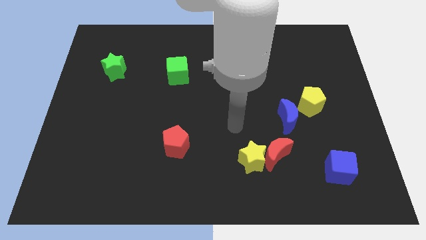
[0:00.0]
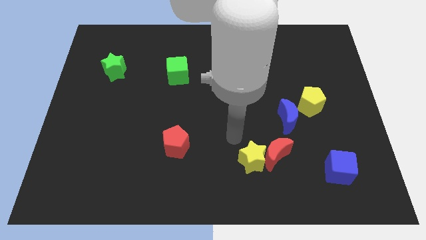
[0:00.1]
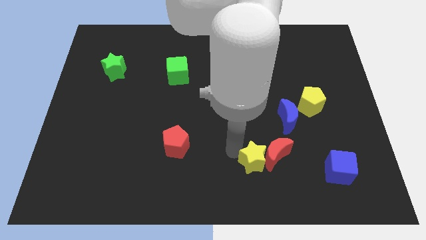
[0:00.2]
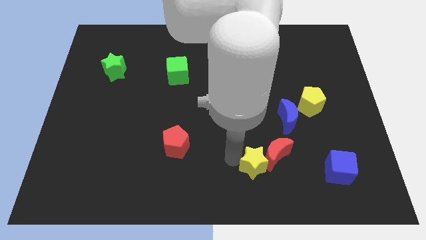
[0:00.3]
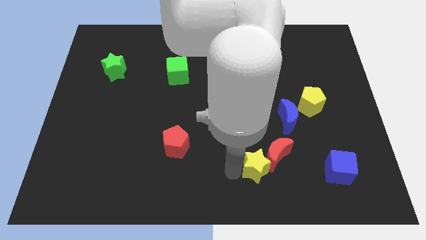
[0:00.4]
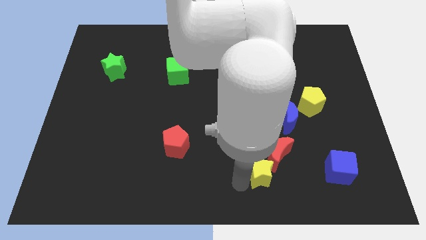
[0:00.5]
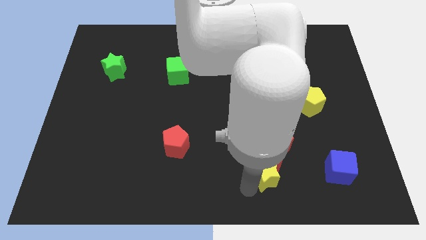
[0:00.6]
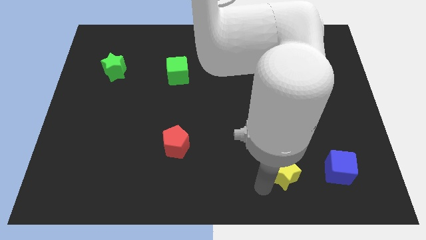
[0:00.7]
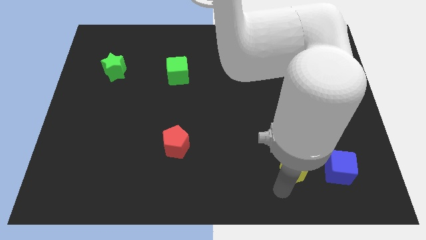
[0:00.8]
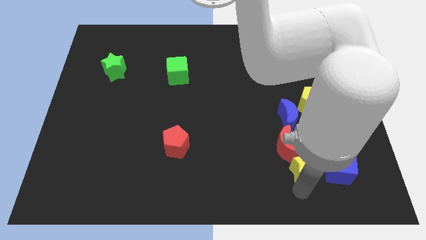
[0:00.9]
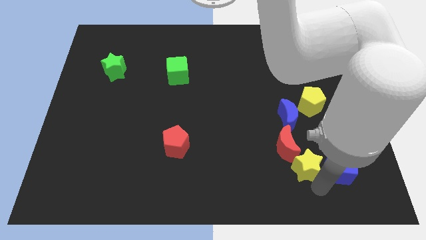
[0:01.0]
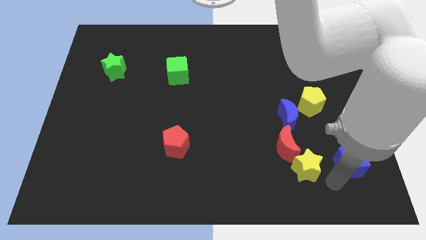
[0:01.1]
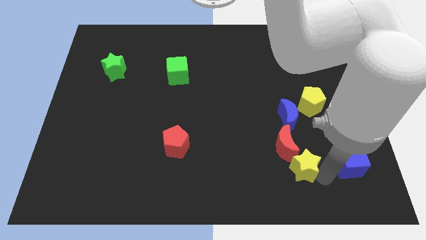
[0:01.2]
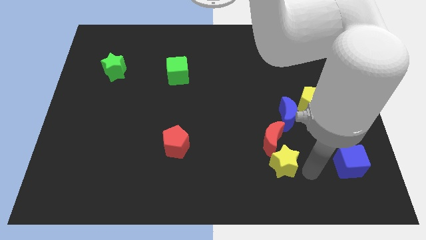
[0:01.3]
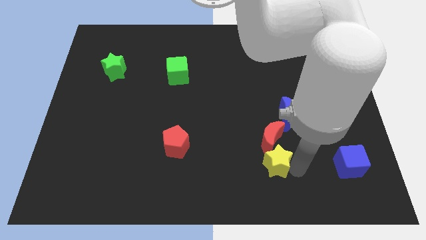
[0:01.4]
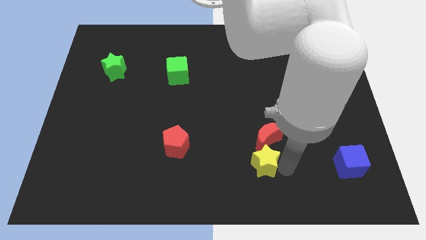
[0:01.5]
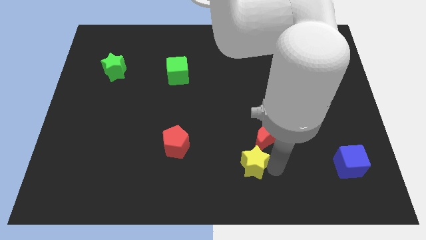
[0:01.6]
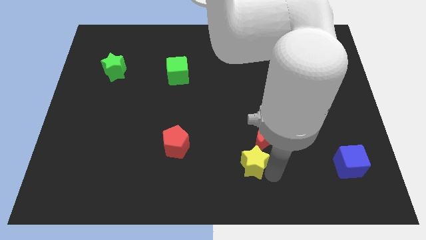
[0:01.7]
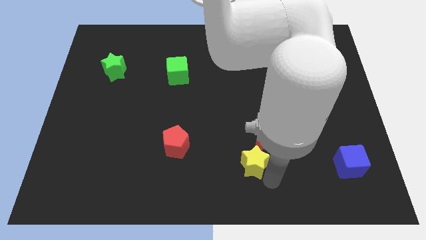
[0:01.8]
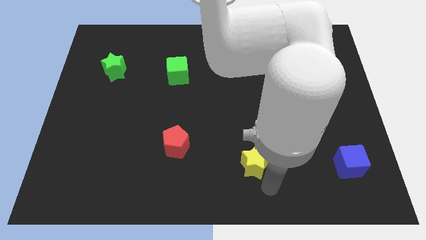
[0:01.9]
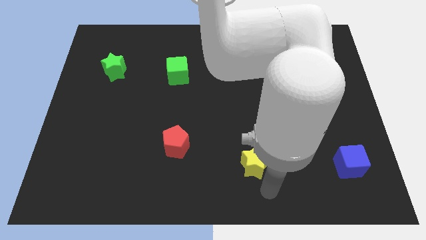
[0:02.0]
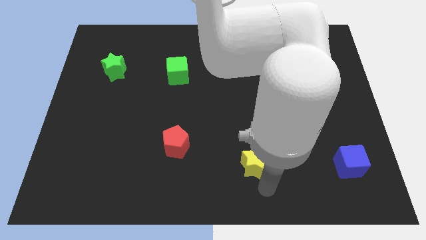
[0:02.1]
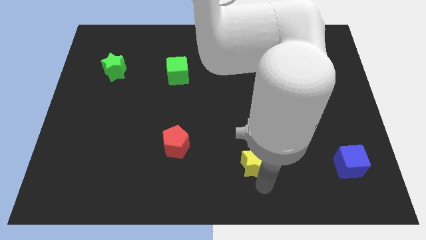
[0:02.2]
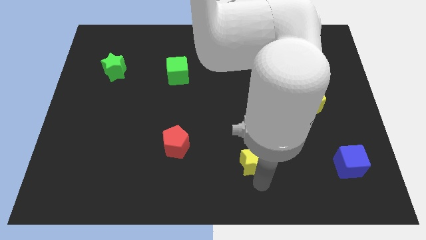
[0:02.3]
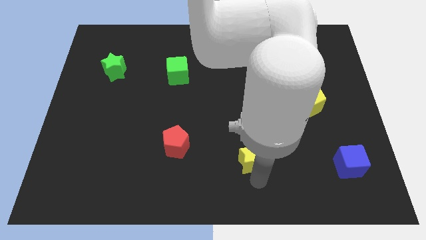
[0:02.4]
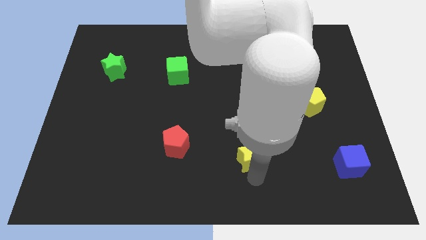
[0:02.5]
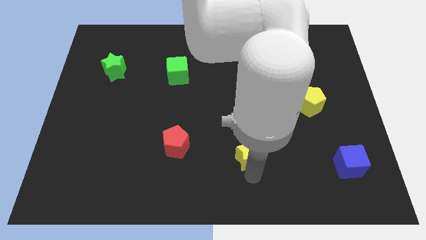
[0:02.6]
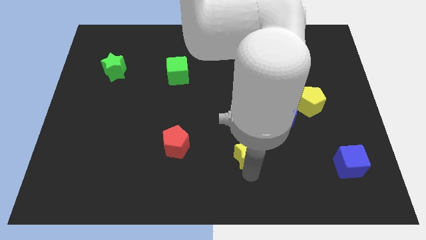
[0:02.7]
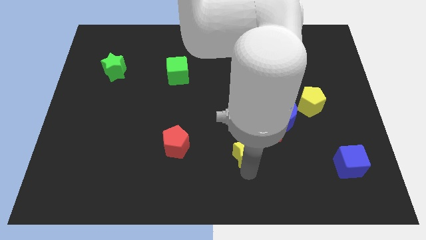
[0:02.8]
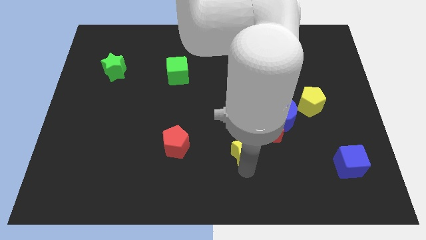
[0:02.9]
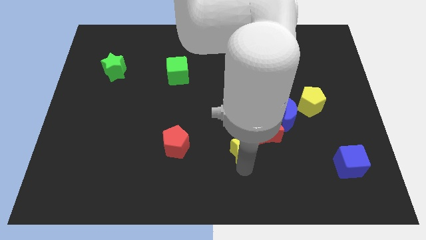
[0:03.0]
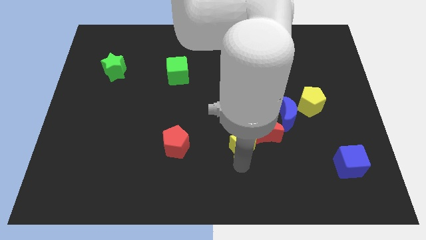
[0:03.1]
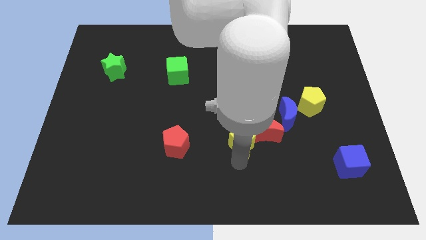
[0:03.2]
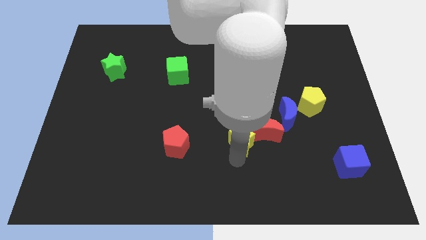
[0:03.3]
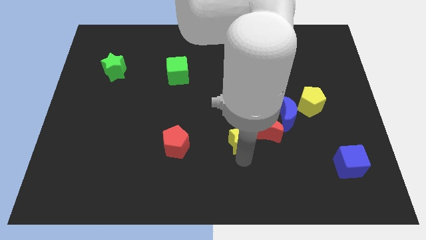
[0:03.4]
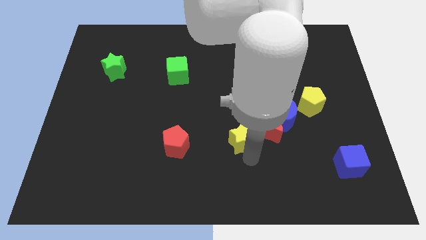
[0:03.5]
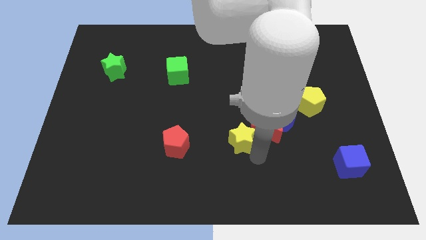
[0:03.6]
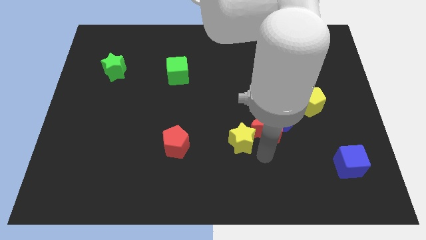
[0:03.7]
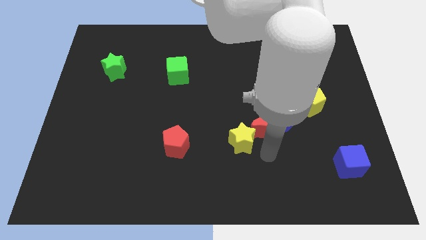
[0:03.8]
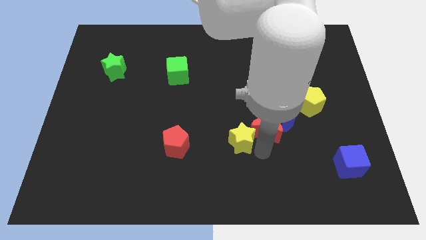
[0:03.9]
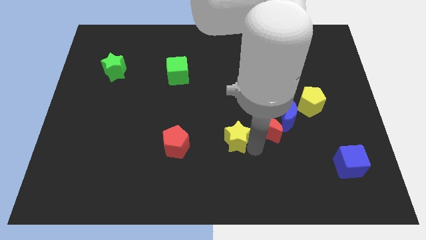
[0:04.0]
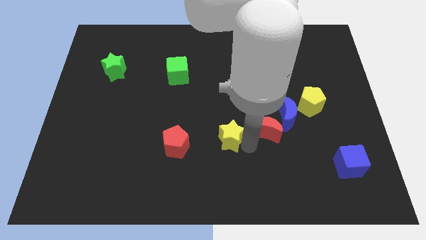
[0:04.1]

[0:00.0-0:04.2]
move the yellow star slightly up and then to the left

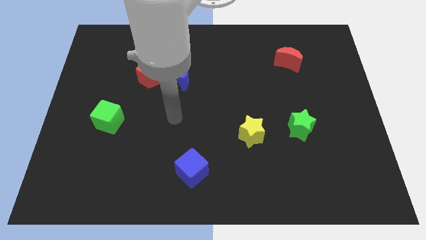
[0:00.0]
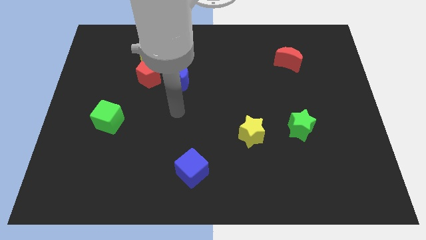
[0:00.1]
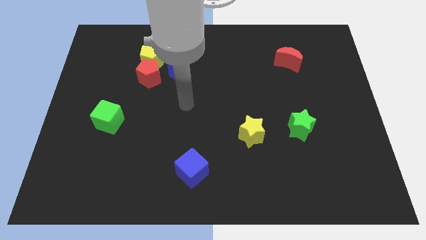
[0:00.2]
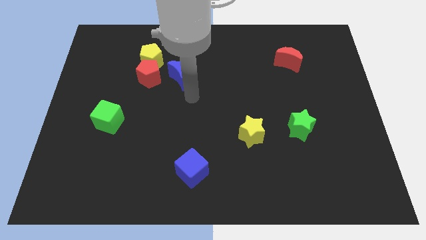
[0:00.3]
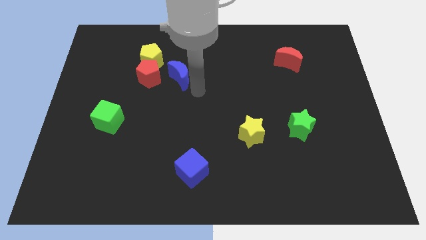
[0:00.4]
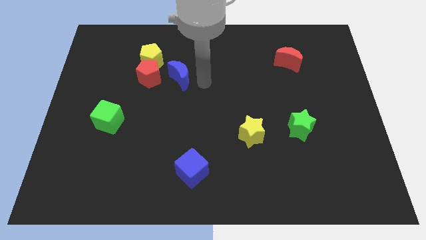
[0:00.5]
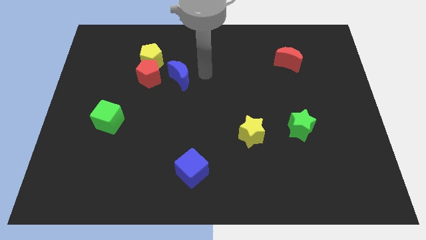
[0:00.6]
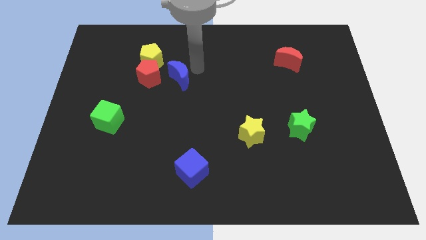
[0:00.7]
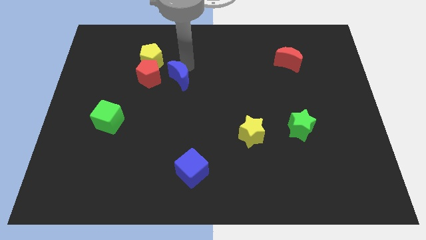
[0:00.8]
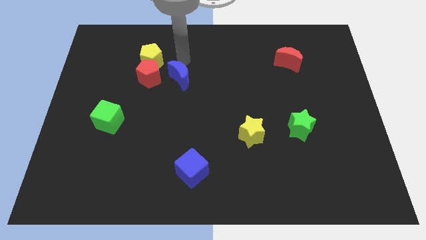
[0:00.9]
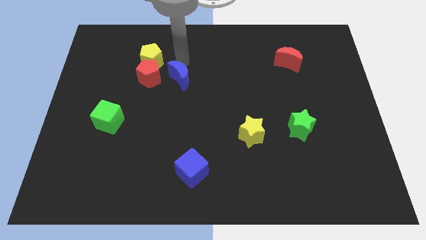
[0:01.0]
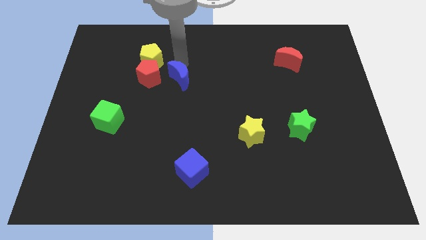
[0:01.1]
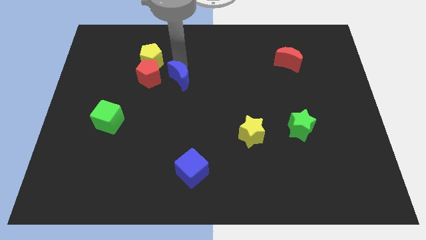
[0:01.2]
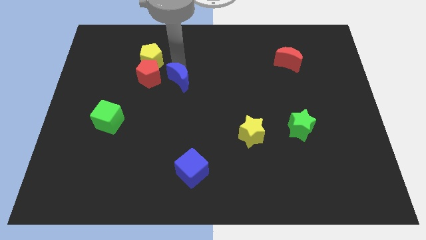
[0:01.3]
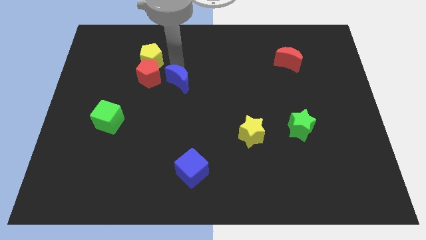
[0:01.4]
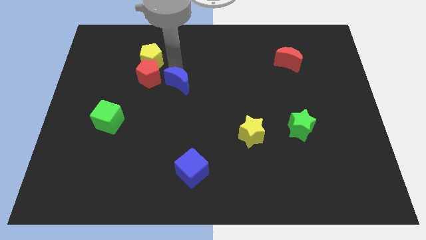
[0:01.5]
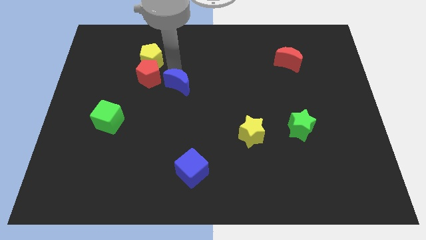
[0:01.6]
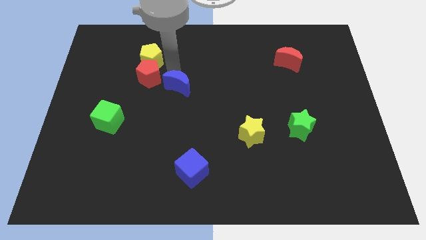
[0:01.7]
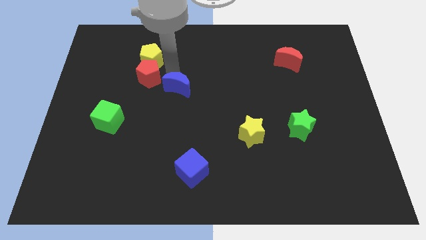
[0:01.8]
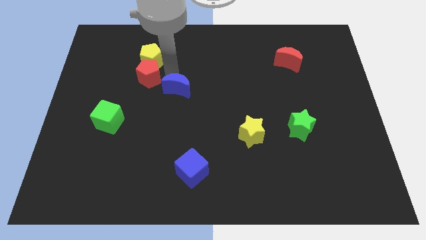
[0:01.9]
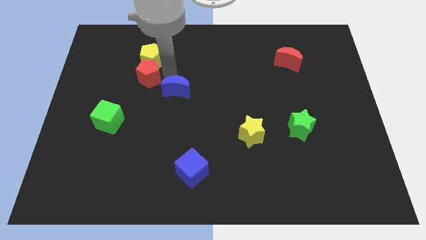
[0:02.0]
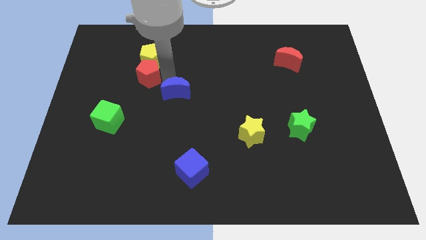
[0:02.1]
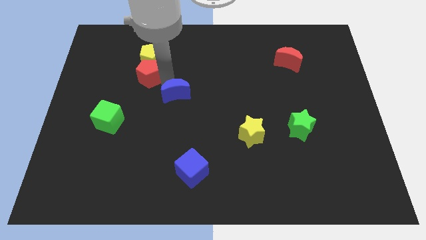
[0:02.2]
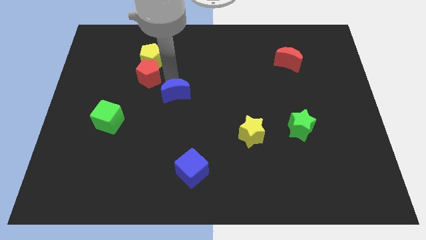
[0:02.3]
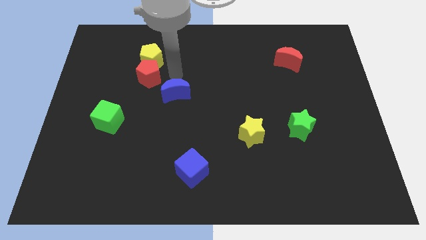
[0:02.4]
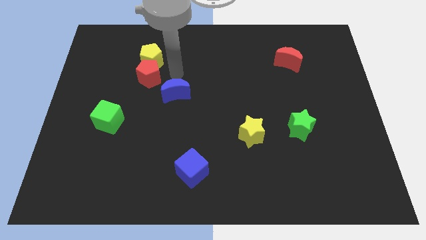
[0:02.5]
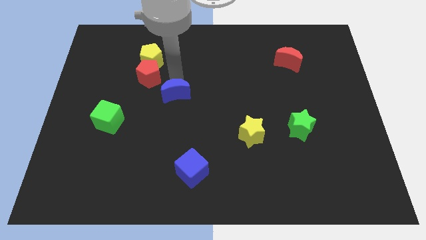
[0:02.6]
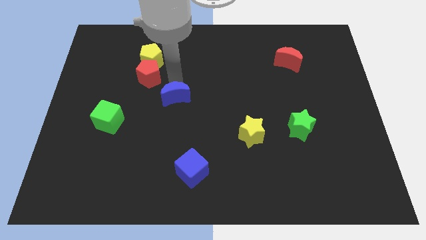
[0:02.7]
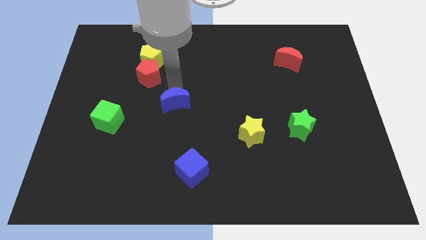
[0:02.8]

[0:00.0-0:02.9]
move the blue moon a little down

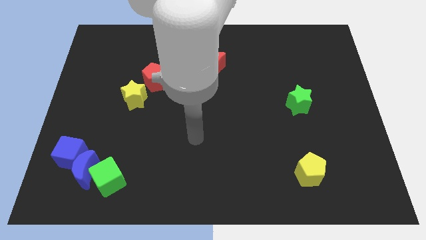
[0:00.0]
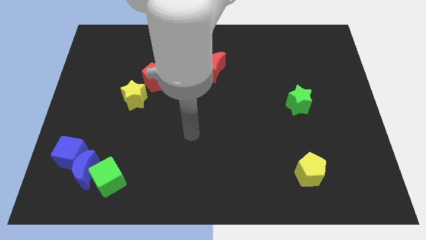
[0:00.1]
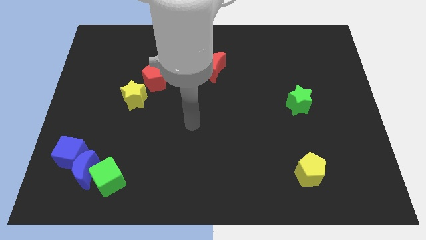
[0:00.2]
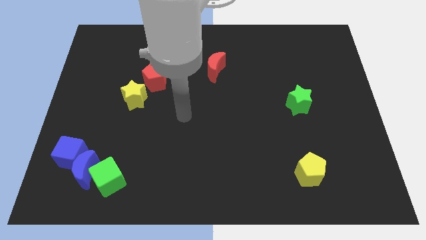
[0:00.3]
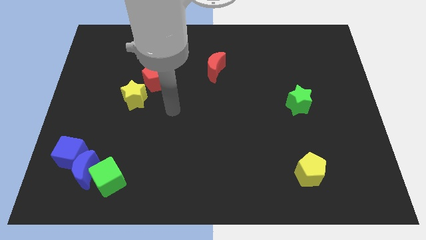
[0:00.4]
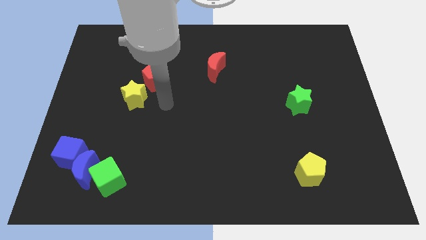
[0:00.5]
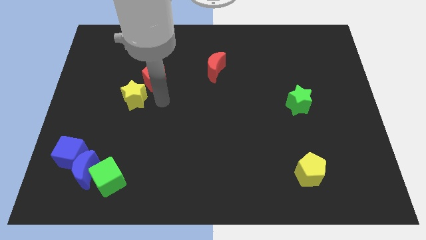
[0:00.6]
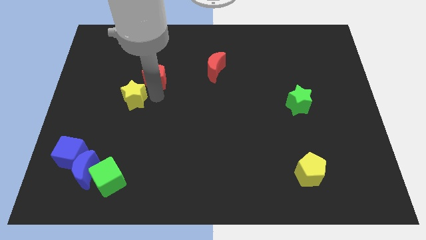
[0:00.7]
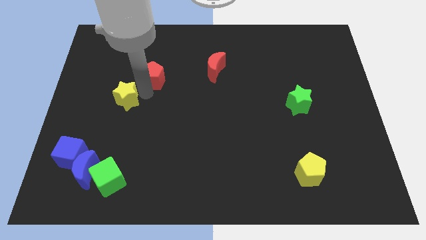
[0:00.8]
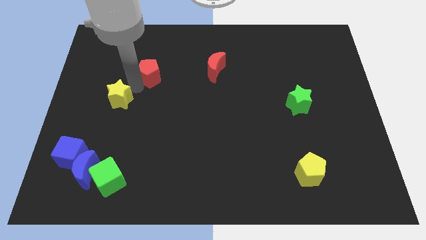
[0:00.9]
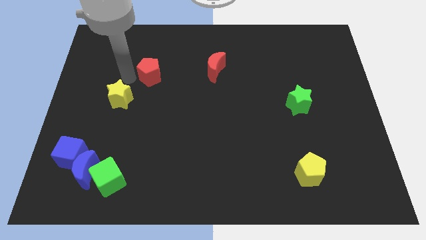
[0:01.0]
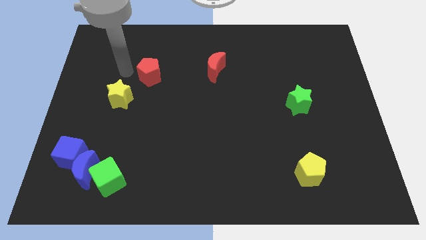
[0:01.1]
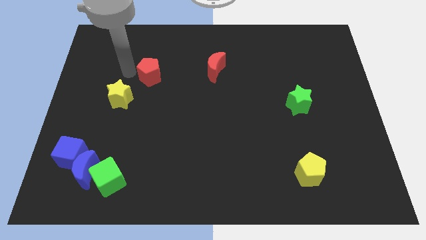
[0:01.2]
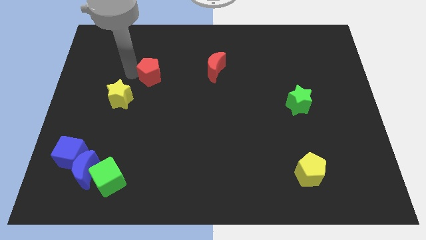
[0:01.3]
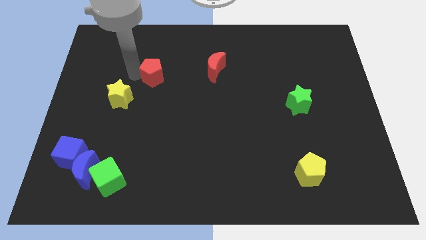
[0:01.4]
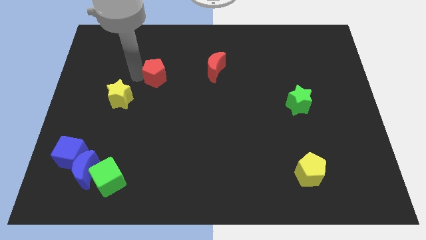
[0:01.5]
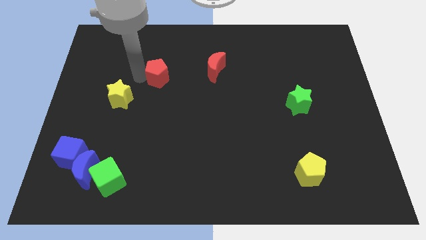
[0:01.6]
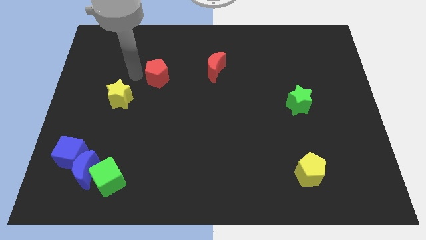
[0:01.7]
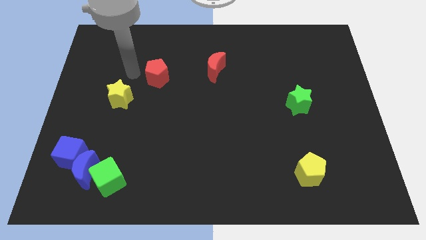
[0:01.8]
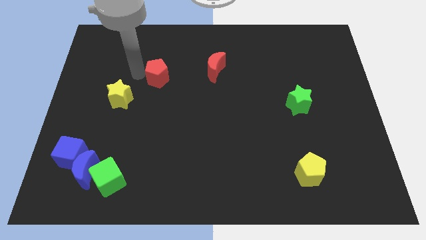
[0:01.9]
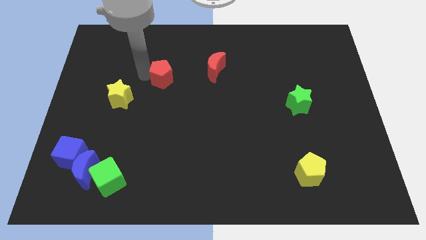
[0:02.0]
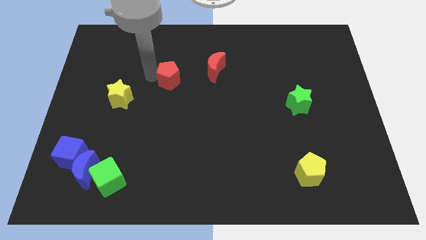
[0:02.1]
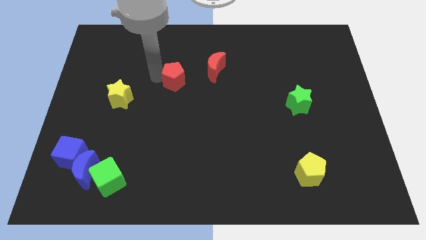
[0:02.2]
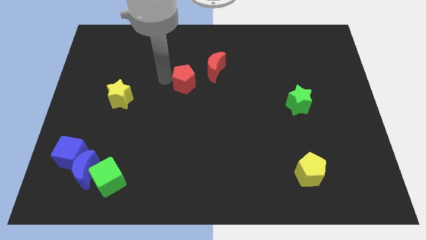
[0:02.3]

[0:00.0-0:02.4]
slightly slide the red pentagon right
